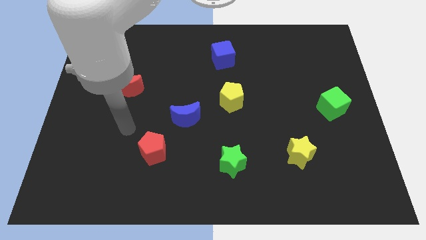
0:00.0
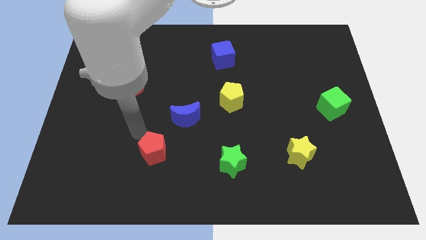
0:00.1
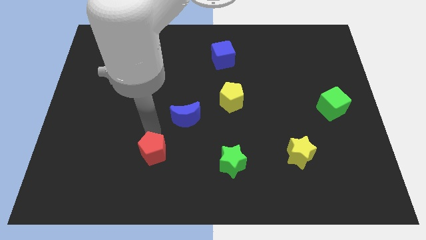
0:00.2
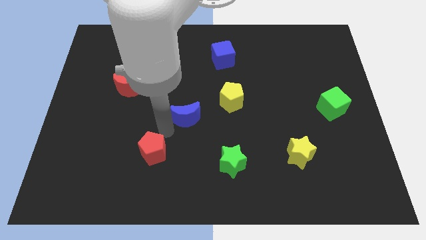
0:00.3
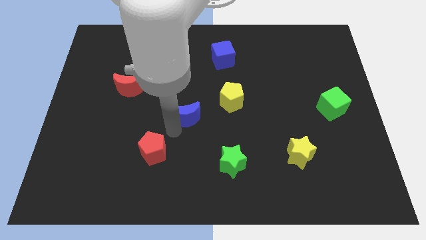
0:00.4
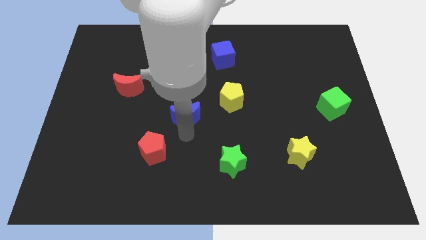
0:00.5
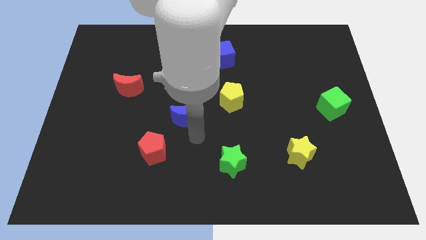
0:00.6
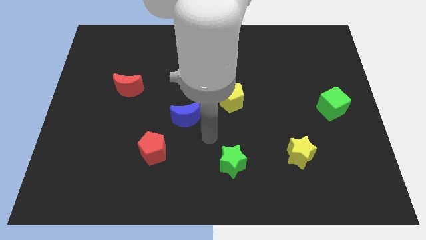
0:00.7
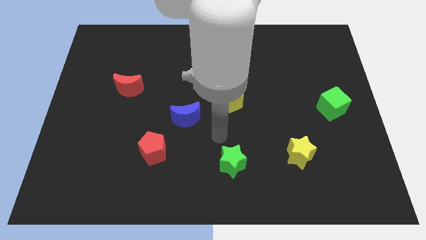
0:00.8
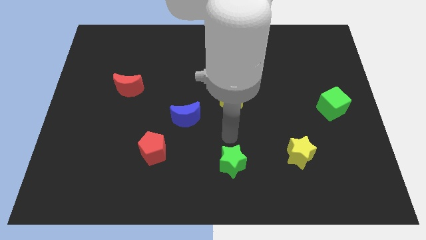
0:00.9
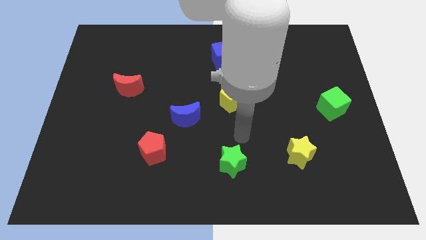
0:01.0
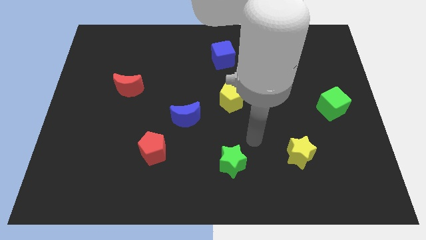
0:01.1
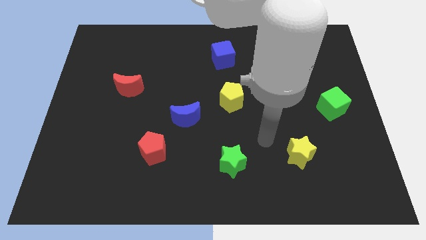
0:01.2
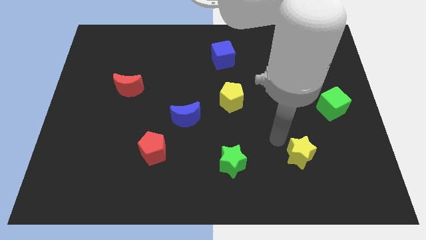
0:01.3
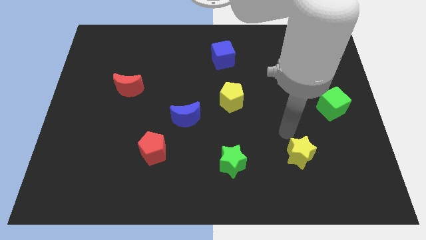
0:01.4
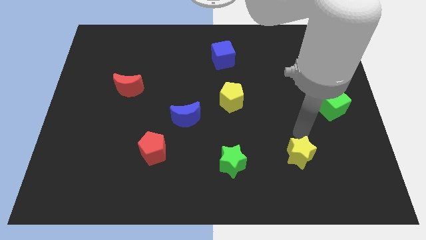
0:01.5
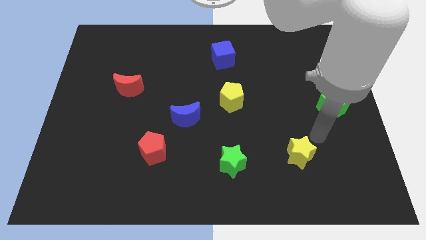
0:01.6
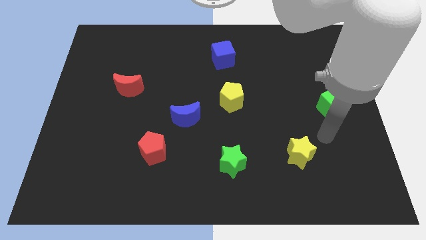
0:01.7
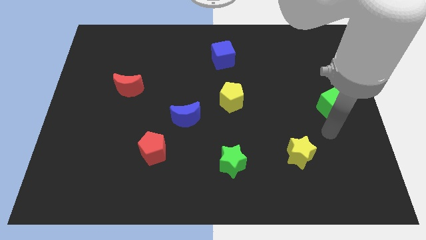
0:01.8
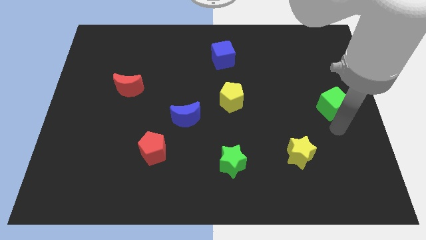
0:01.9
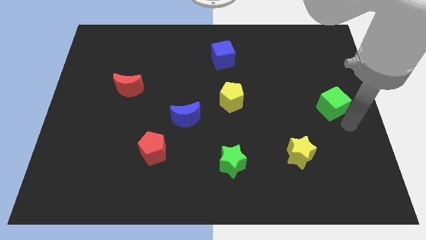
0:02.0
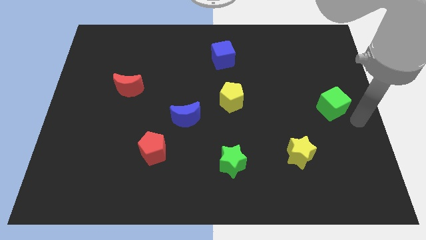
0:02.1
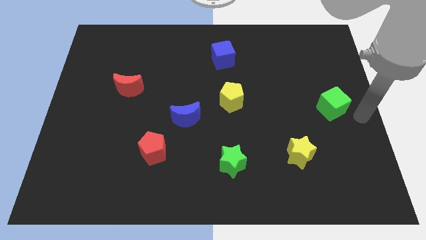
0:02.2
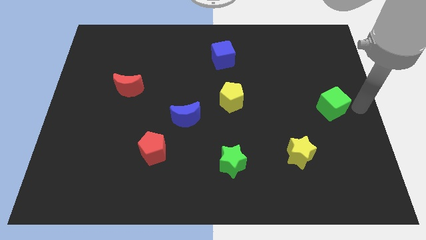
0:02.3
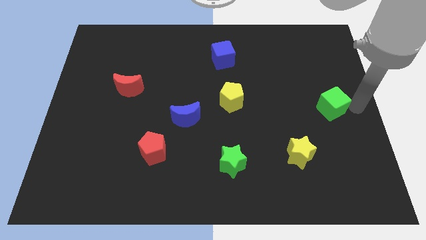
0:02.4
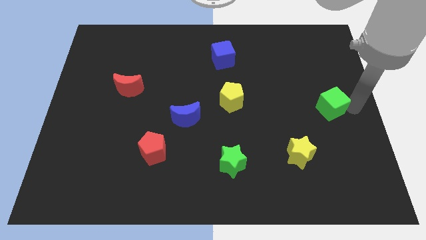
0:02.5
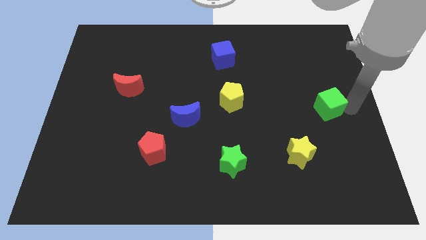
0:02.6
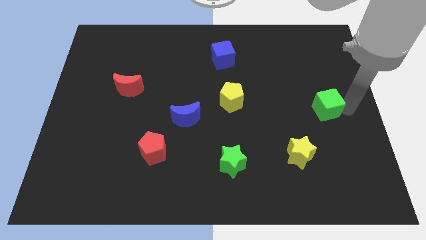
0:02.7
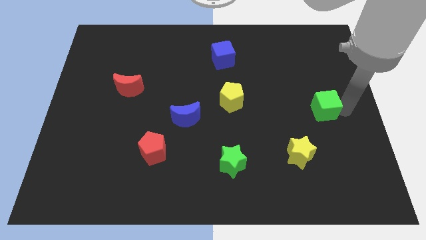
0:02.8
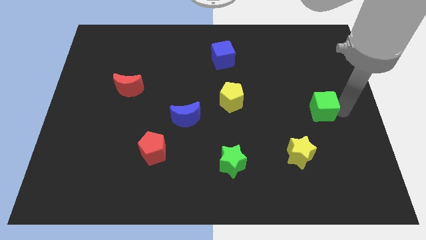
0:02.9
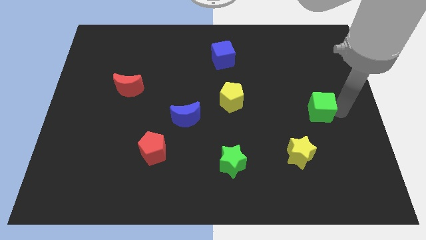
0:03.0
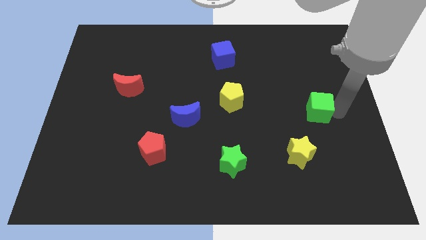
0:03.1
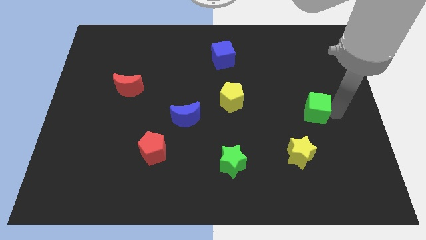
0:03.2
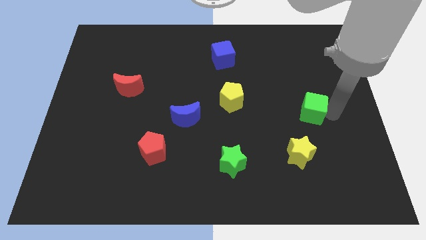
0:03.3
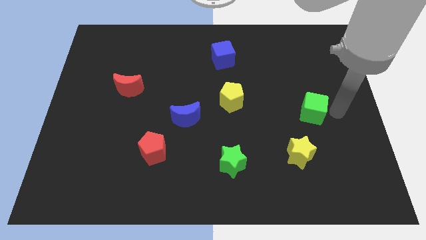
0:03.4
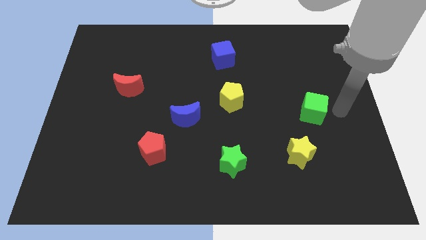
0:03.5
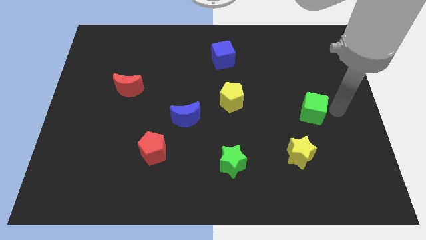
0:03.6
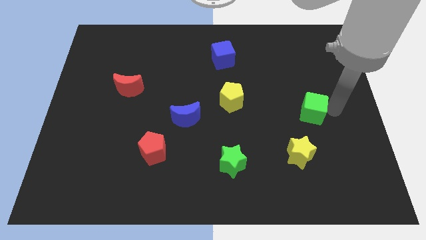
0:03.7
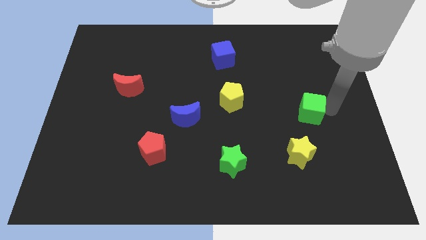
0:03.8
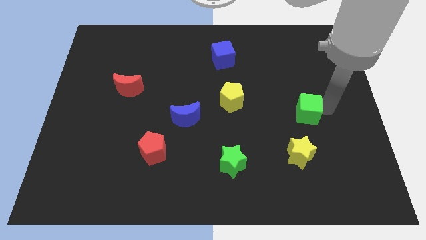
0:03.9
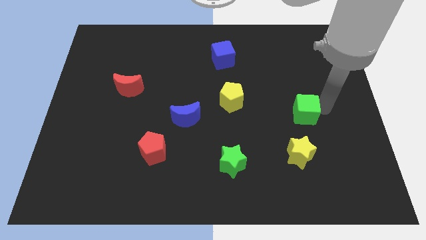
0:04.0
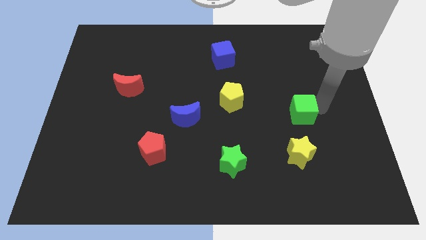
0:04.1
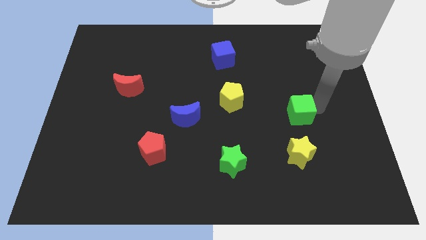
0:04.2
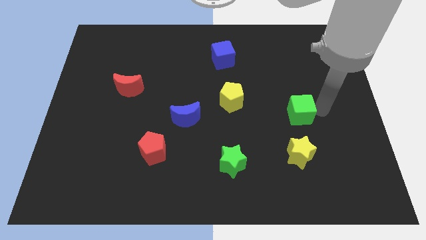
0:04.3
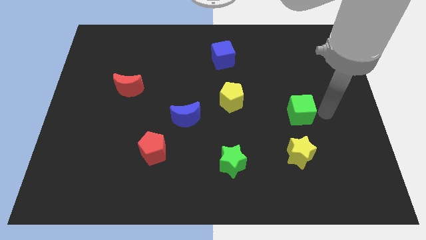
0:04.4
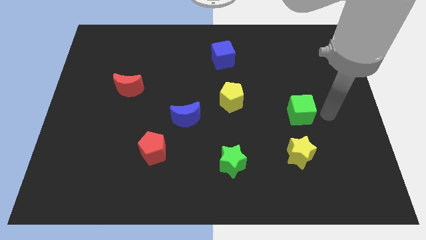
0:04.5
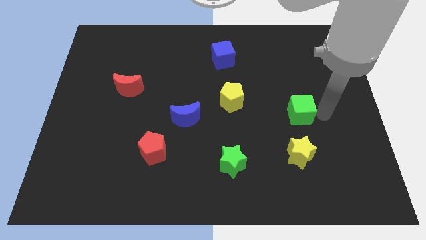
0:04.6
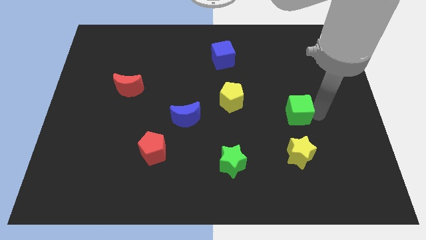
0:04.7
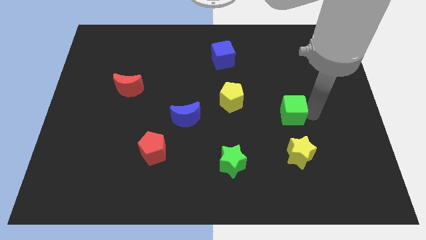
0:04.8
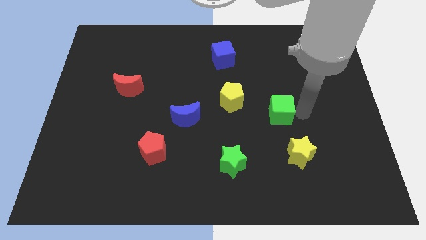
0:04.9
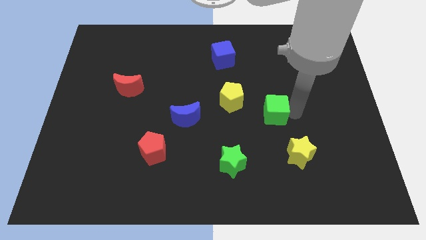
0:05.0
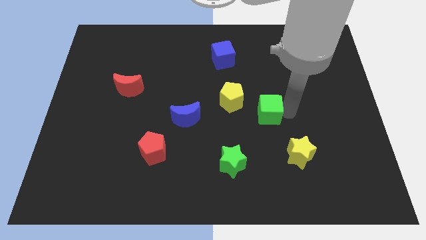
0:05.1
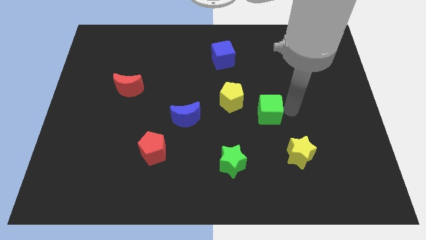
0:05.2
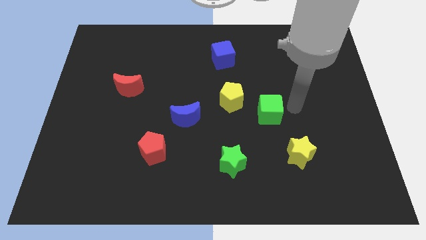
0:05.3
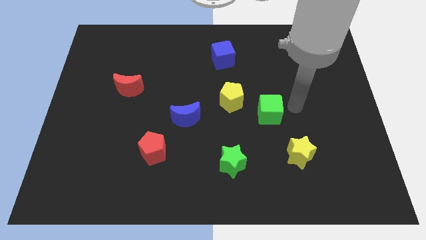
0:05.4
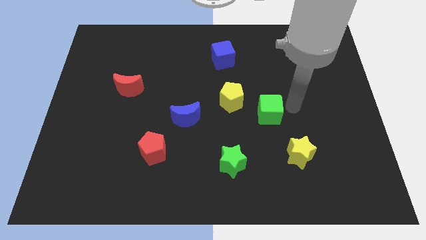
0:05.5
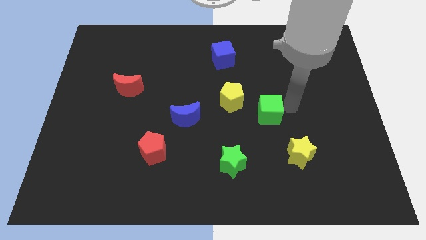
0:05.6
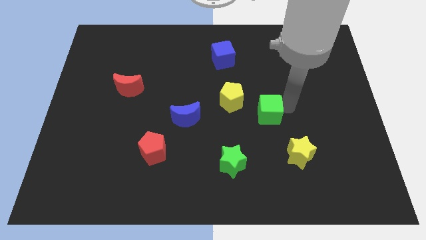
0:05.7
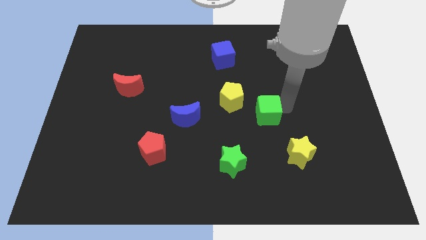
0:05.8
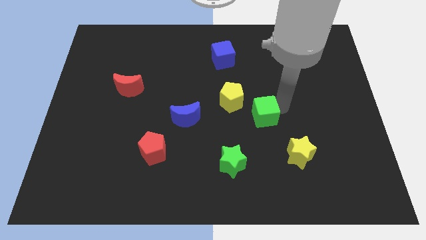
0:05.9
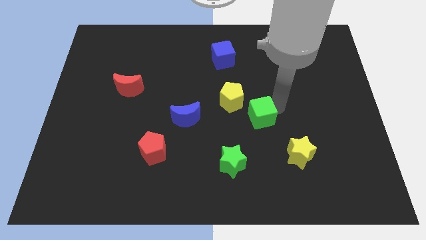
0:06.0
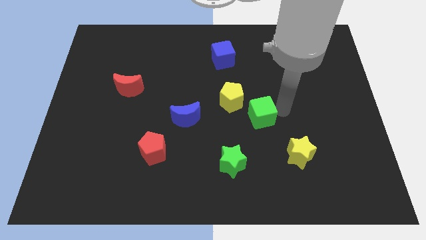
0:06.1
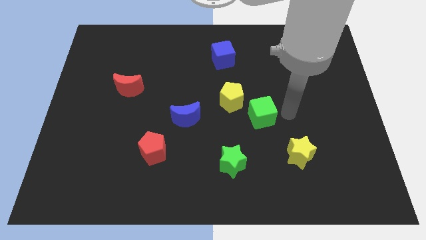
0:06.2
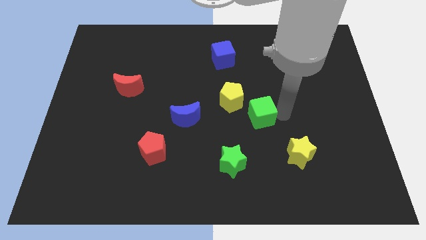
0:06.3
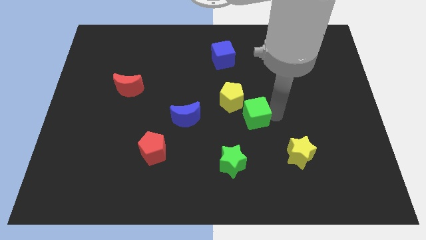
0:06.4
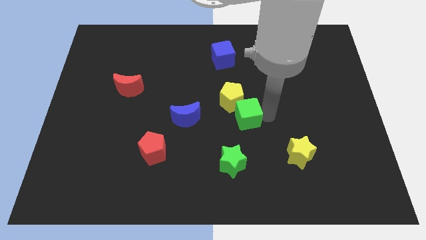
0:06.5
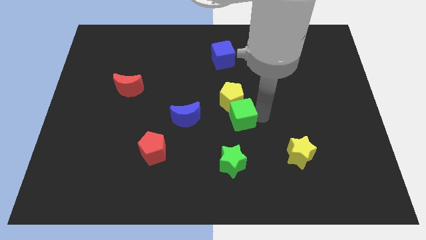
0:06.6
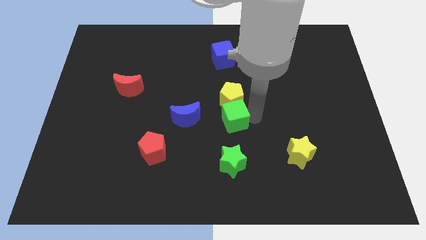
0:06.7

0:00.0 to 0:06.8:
move the green cube to the bottom left side of the yellow pentagon

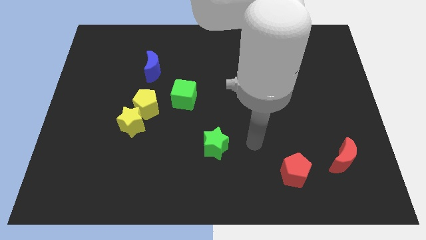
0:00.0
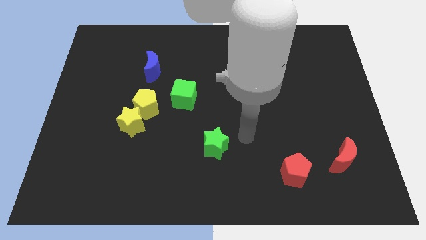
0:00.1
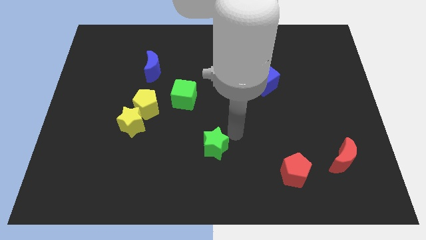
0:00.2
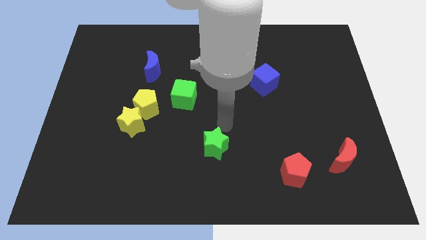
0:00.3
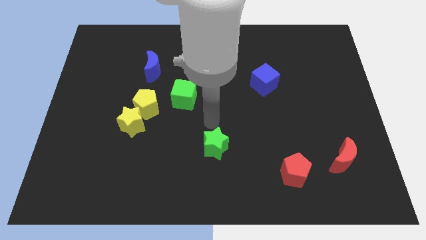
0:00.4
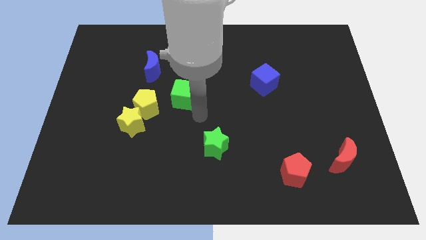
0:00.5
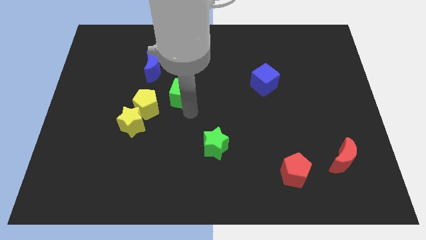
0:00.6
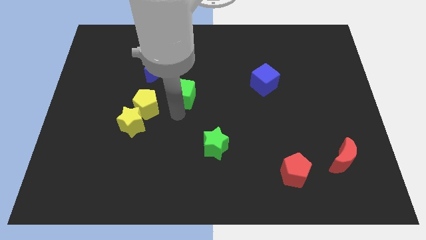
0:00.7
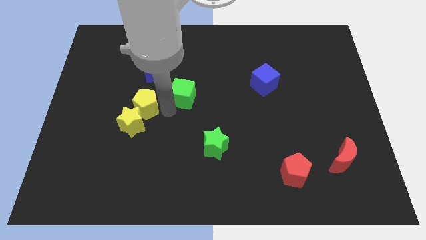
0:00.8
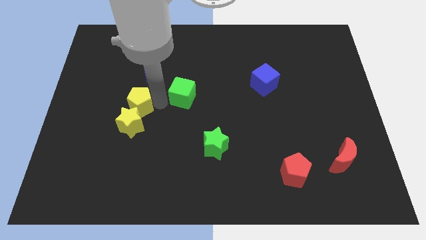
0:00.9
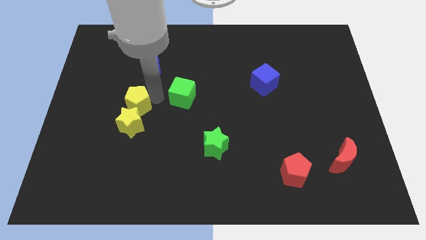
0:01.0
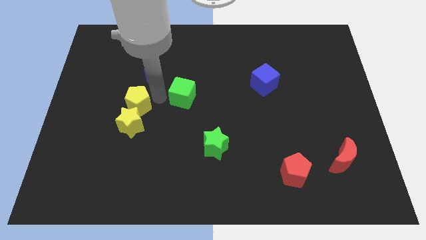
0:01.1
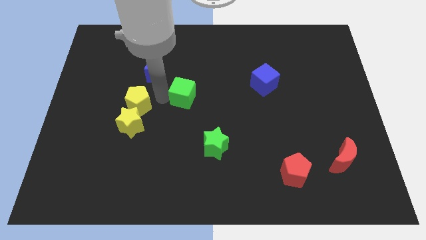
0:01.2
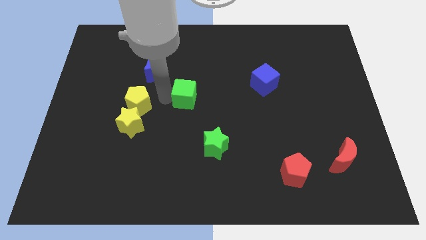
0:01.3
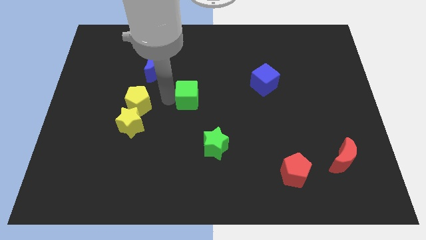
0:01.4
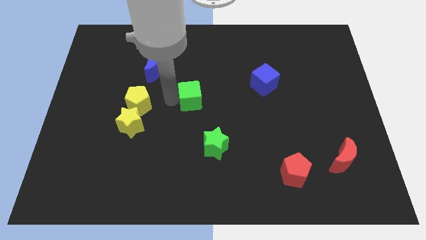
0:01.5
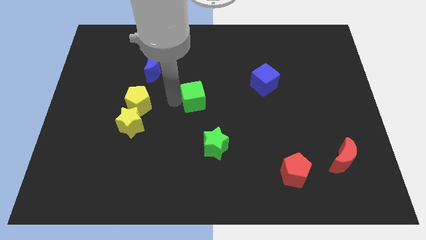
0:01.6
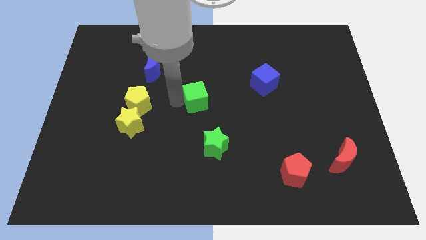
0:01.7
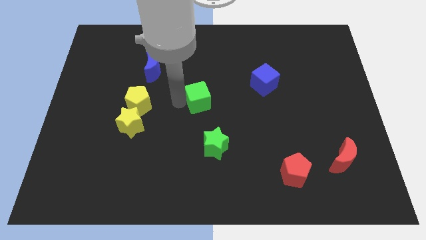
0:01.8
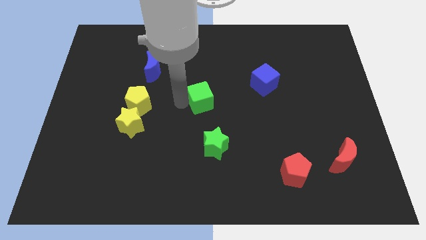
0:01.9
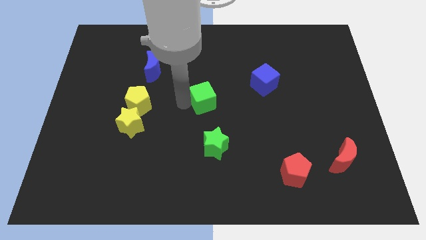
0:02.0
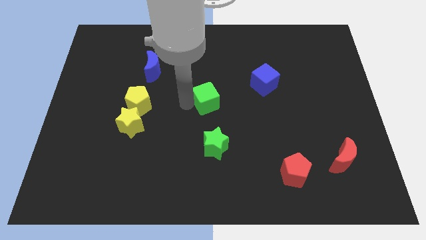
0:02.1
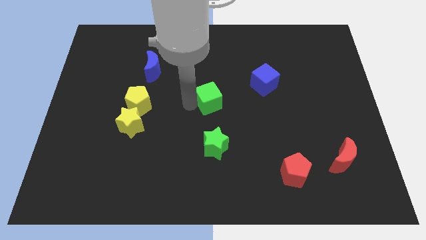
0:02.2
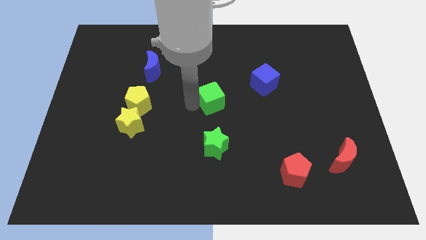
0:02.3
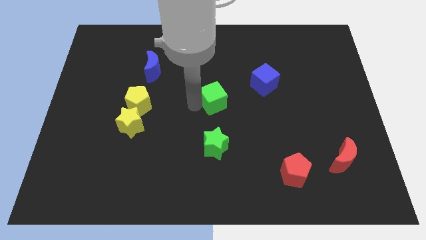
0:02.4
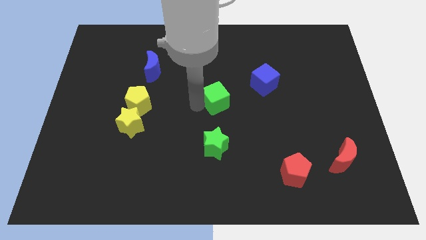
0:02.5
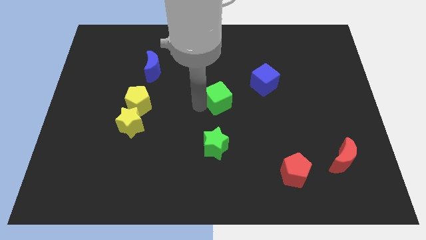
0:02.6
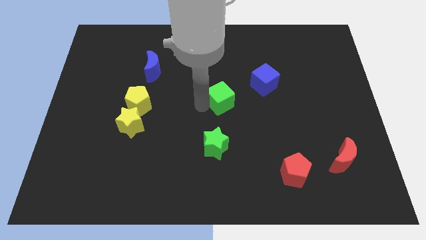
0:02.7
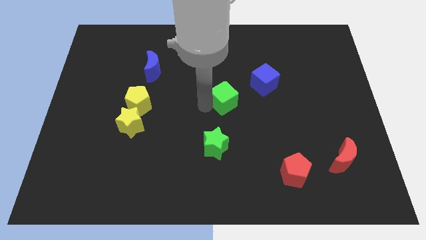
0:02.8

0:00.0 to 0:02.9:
push the green cube diagonally down and to the left of the blue cube
